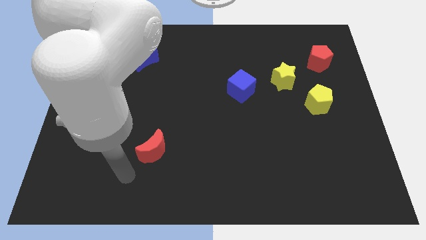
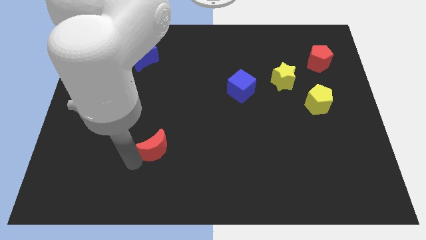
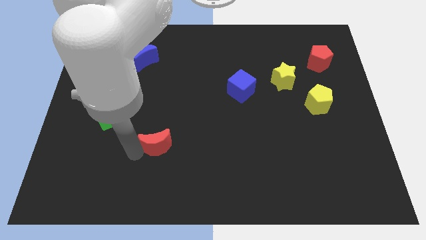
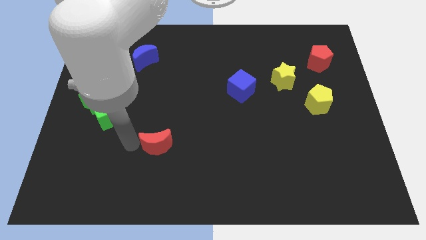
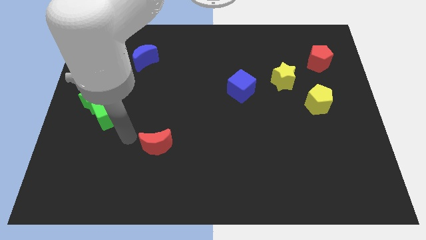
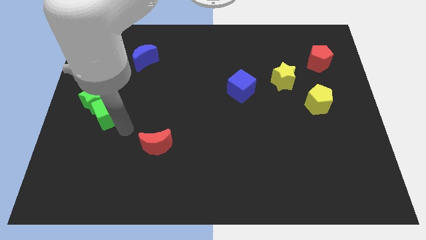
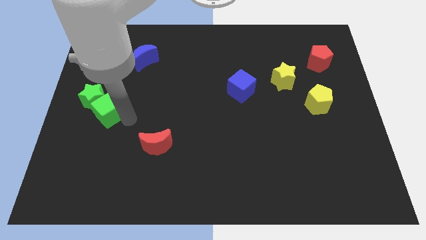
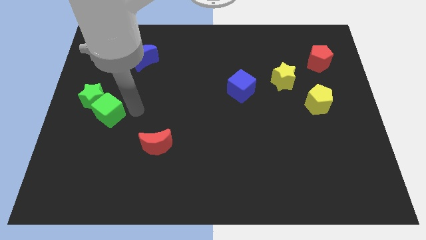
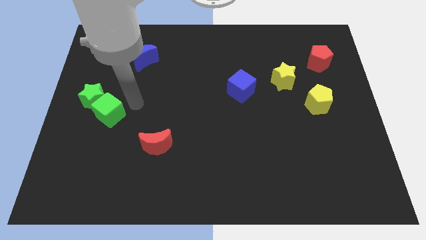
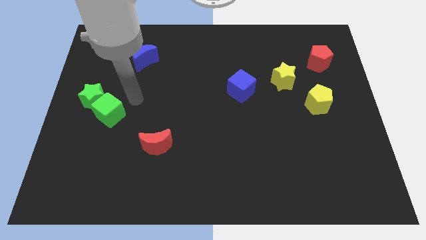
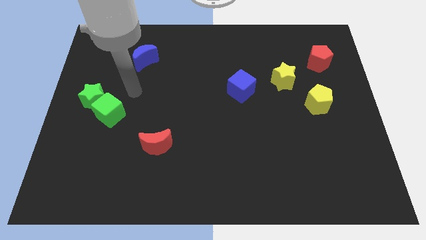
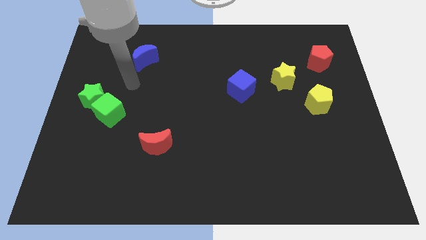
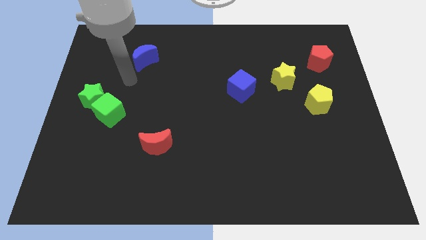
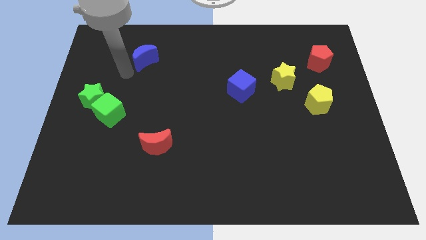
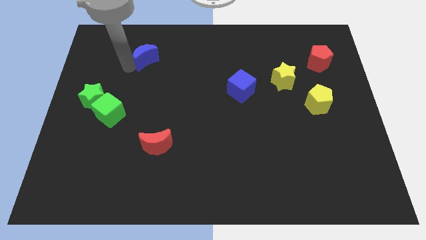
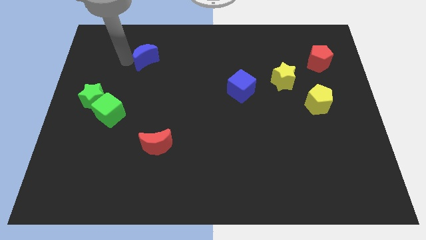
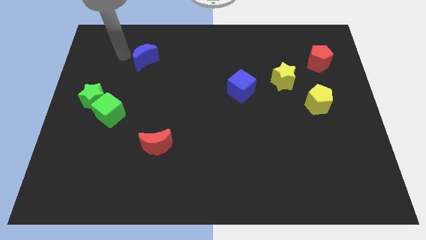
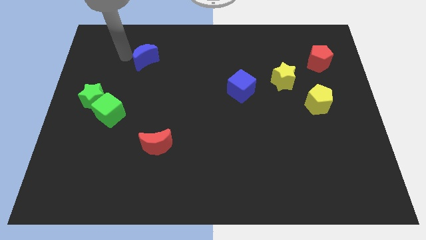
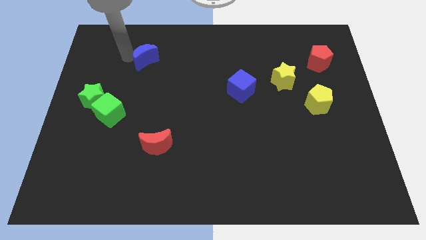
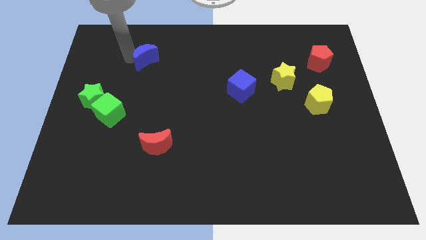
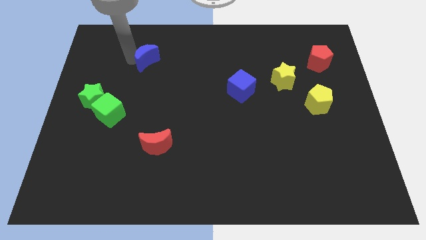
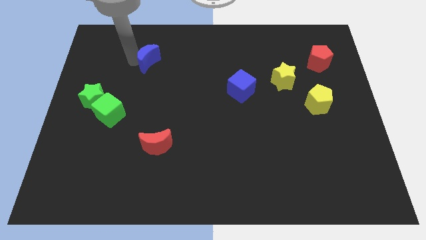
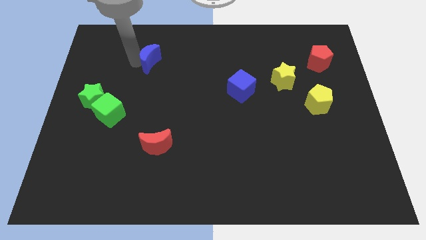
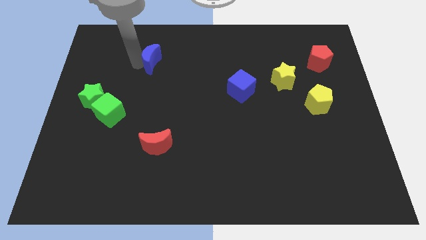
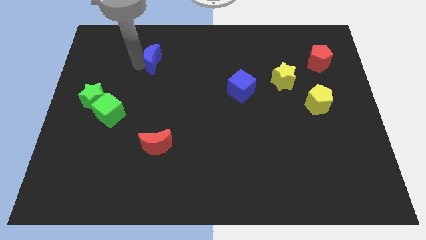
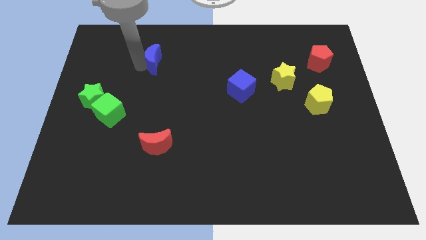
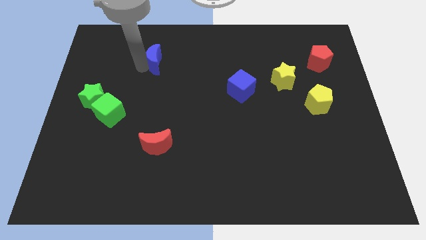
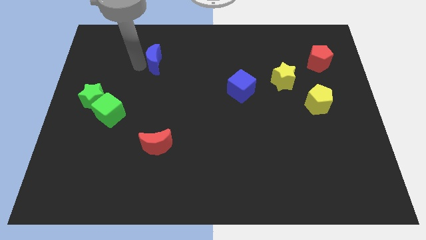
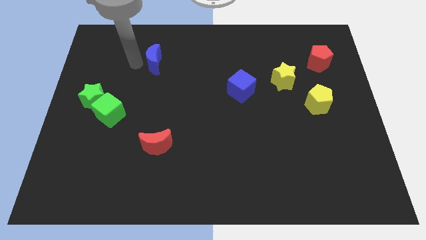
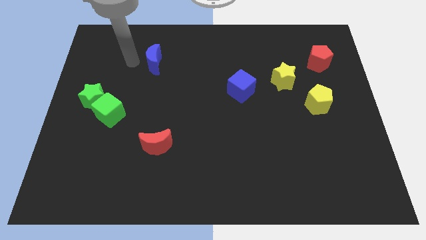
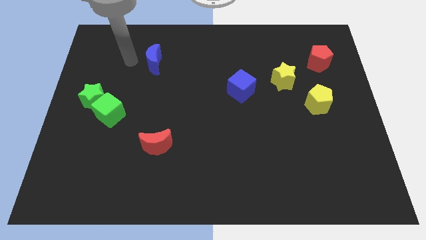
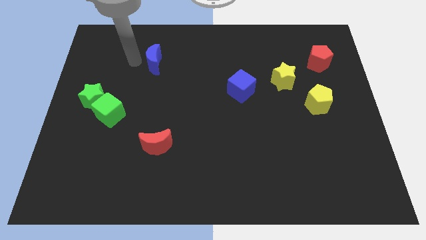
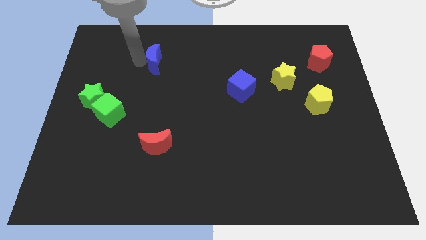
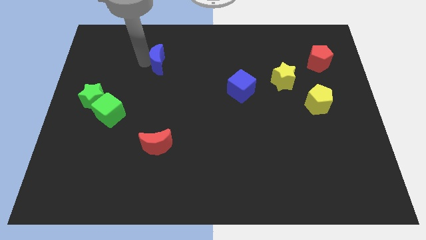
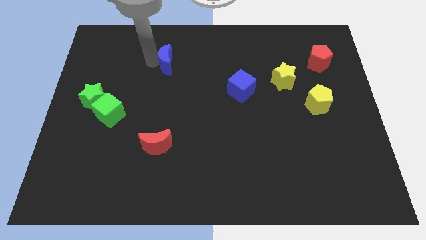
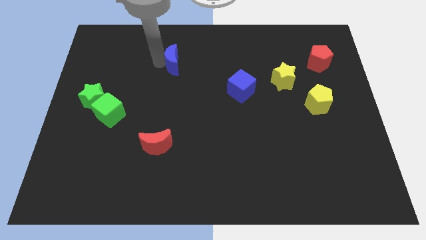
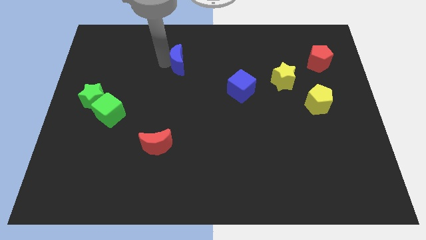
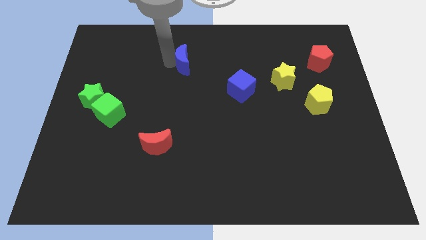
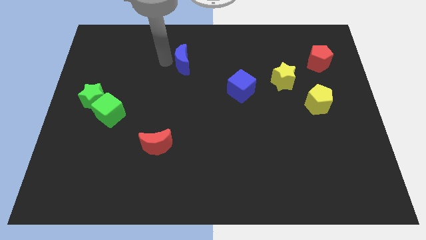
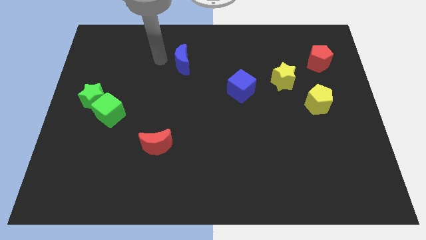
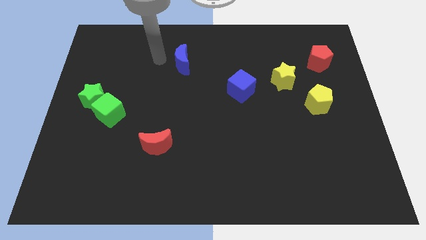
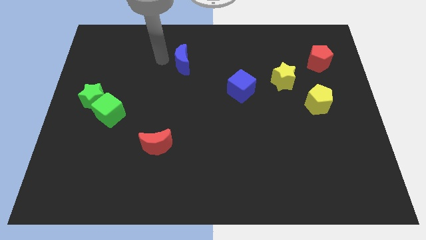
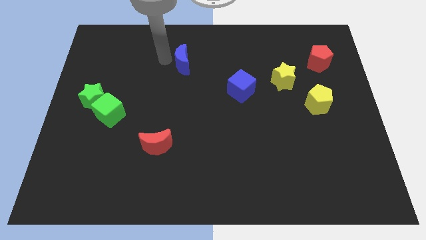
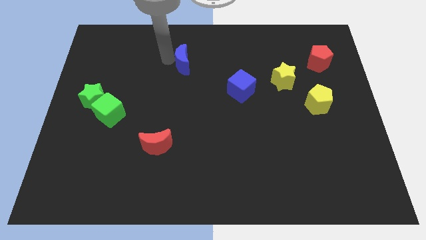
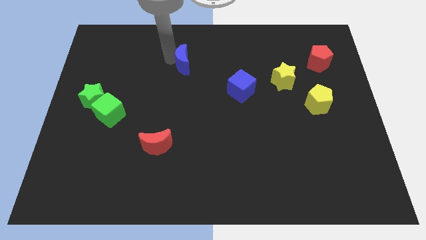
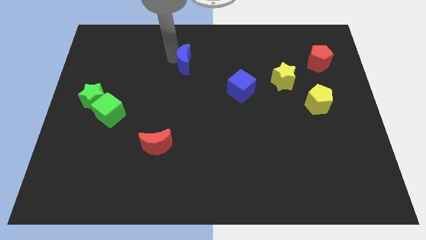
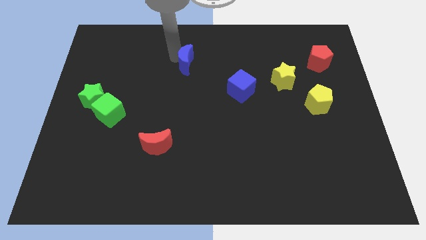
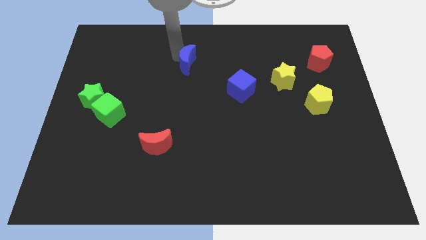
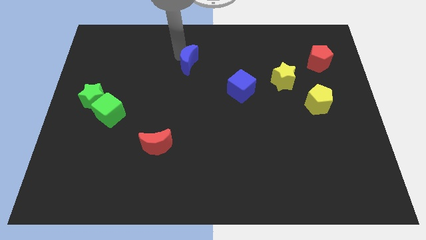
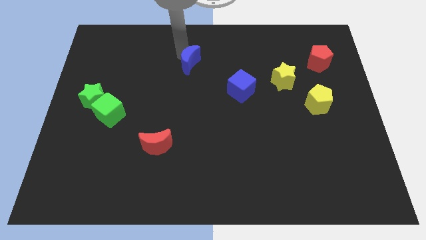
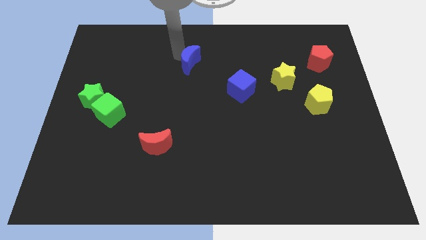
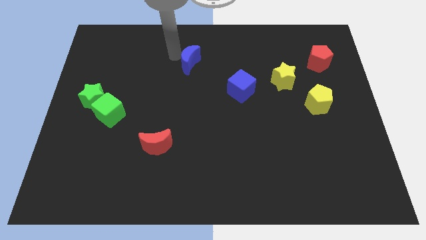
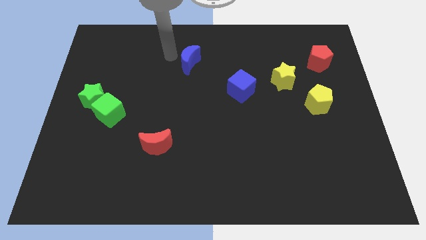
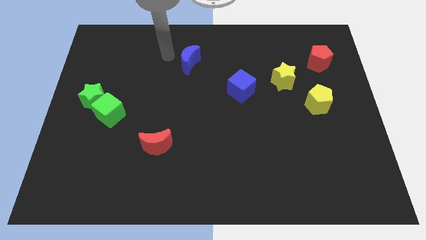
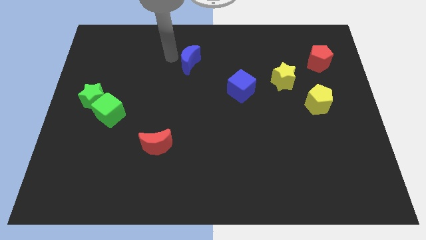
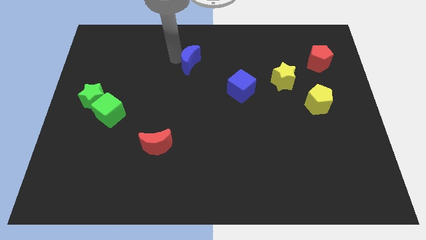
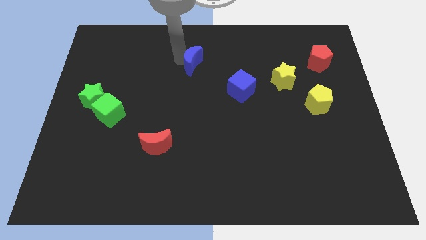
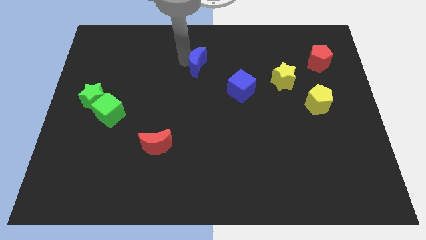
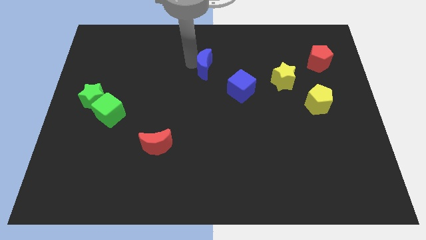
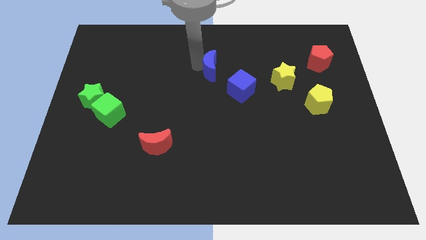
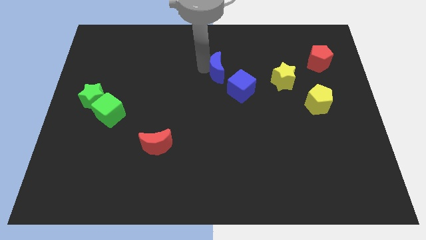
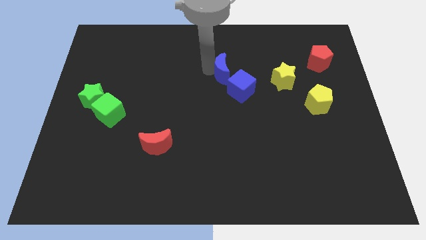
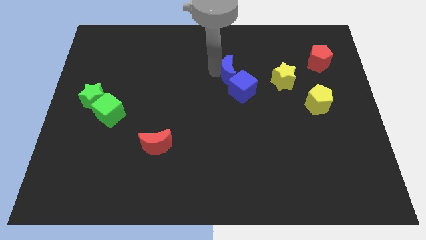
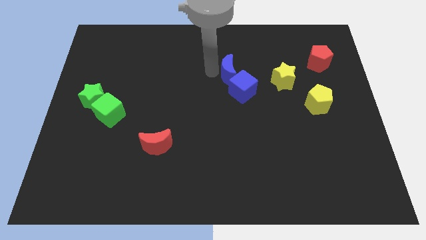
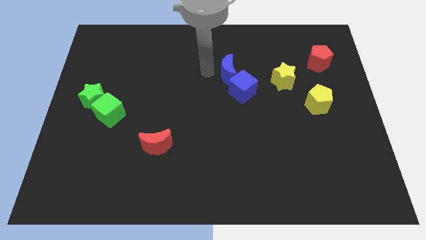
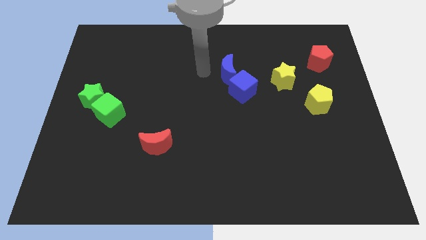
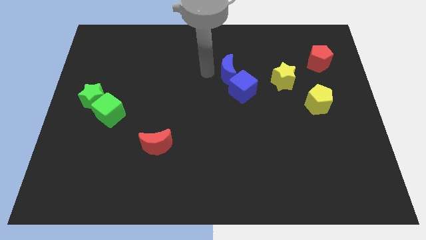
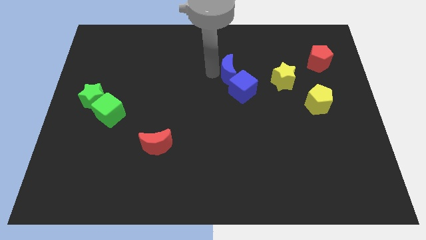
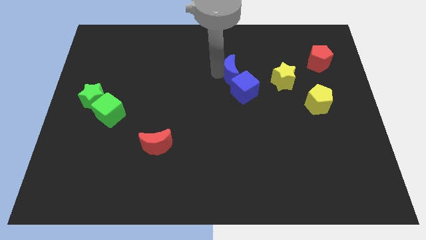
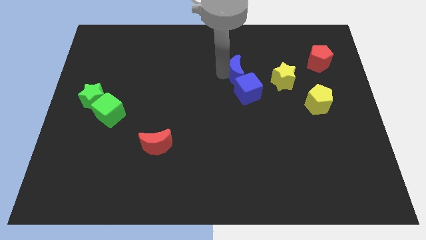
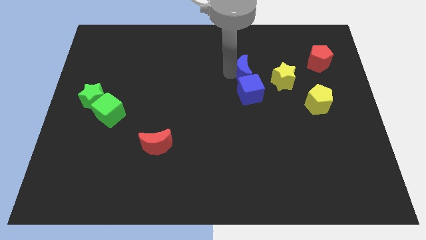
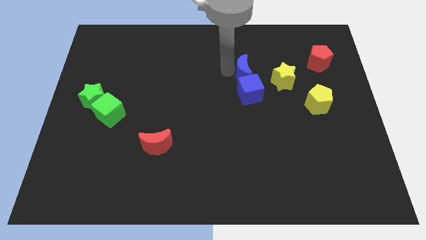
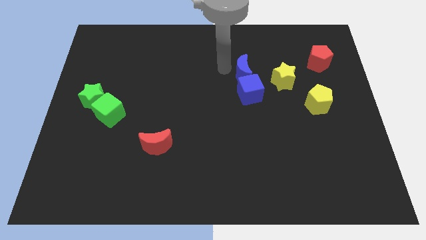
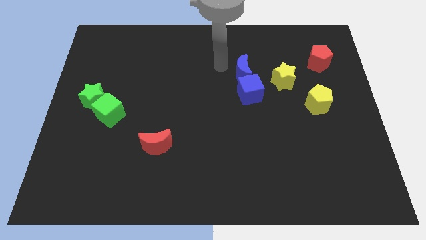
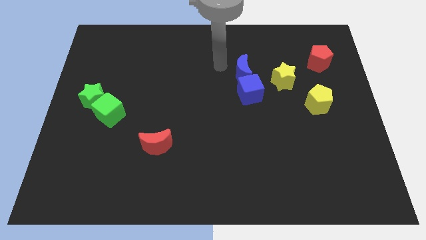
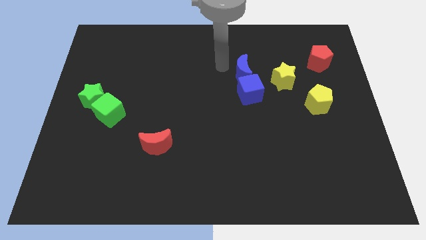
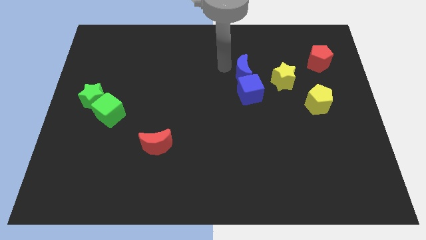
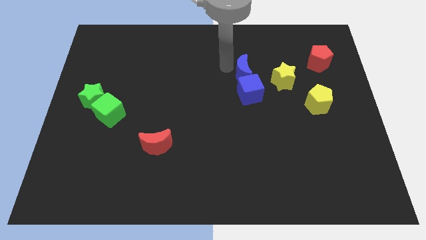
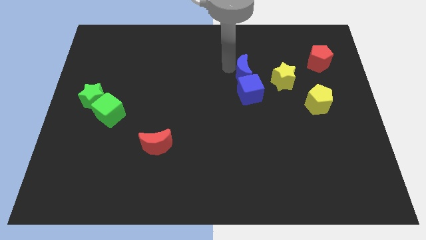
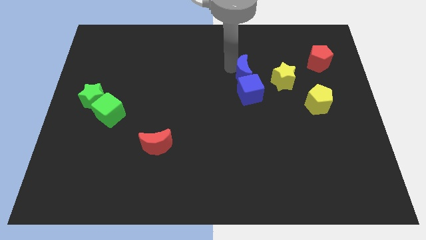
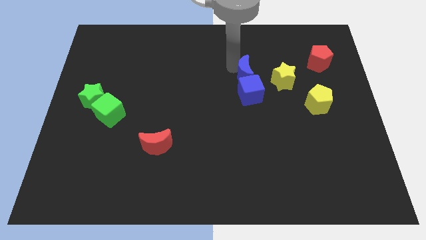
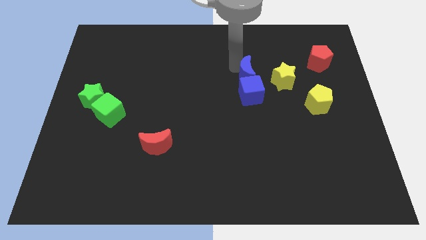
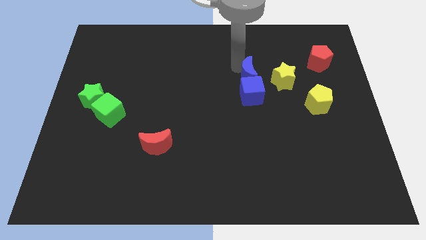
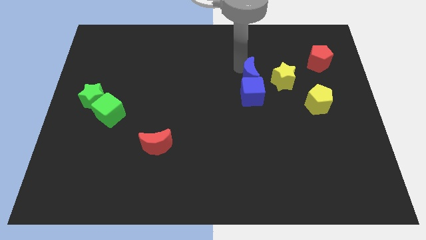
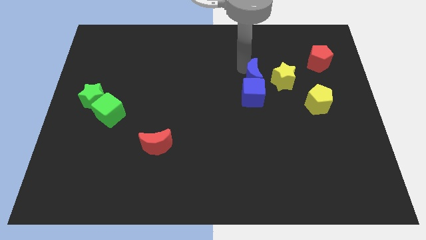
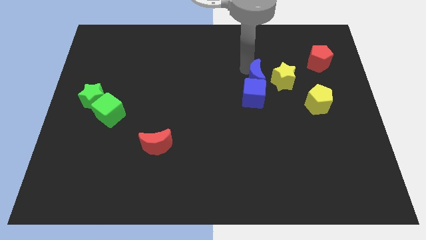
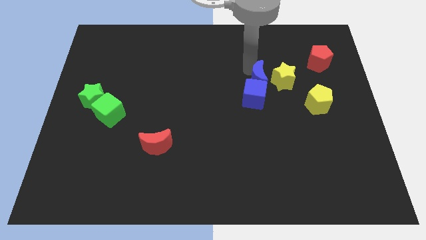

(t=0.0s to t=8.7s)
put the blue moon to the yellow star
